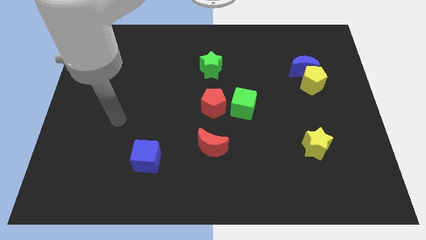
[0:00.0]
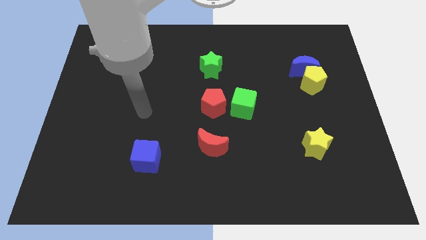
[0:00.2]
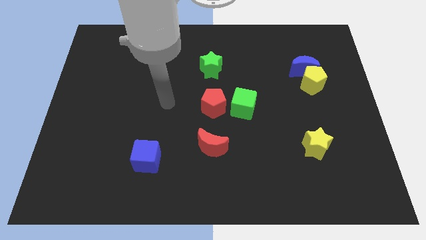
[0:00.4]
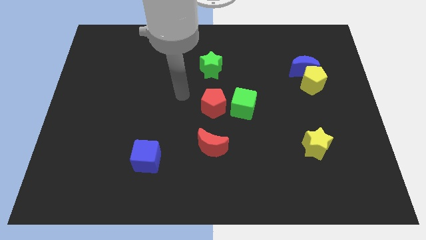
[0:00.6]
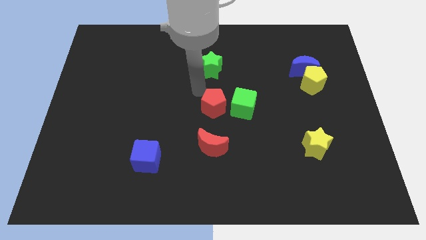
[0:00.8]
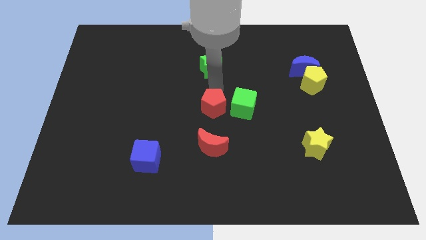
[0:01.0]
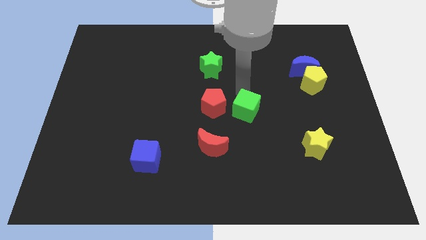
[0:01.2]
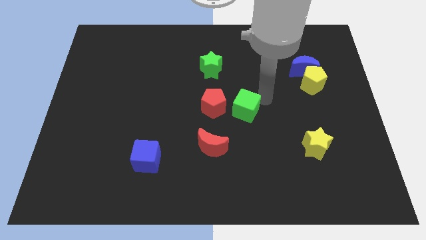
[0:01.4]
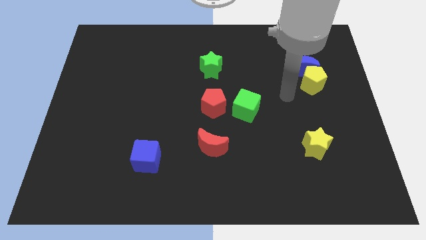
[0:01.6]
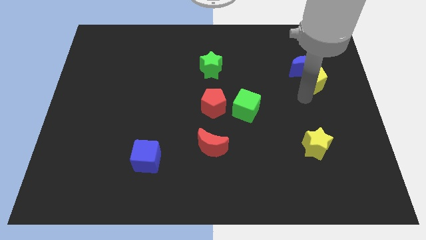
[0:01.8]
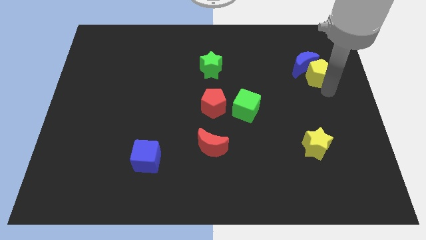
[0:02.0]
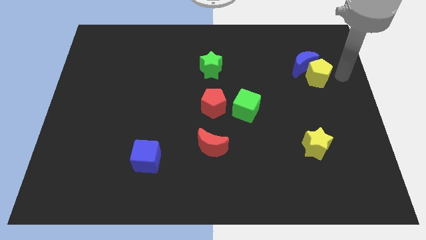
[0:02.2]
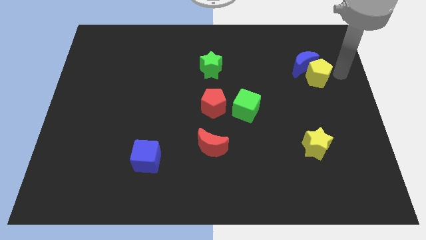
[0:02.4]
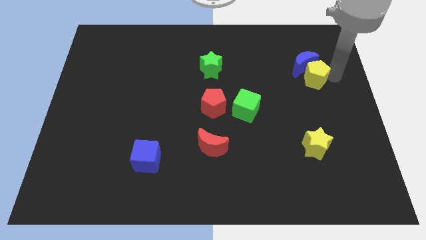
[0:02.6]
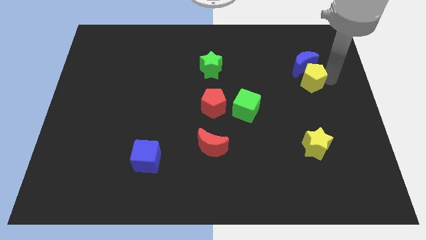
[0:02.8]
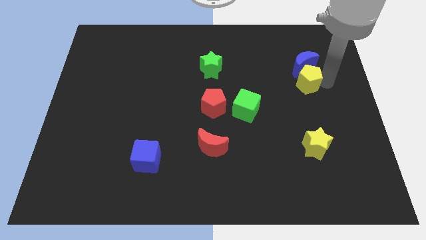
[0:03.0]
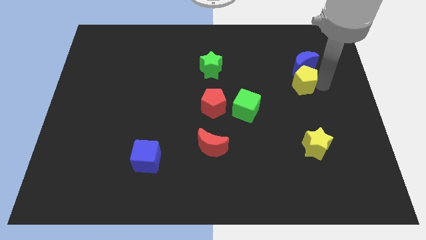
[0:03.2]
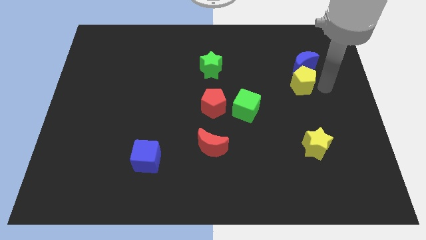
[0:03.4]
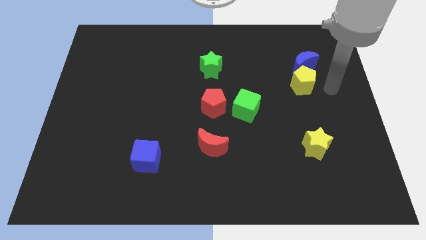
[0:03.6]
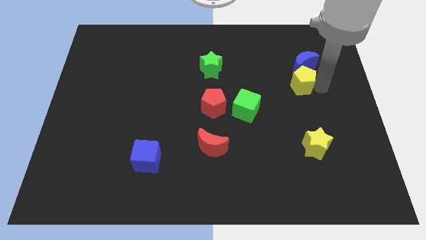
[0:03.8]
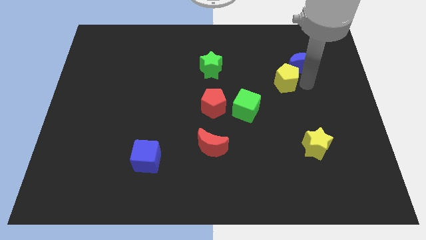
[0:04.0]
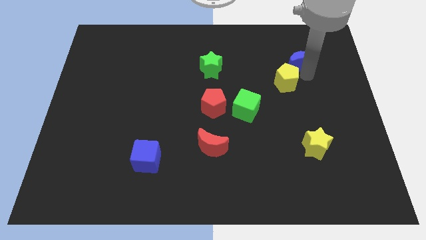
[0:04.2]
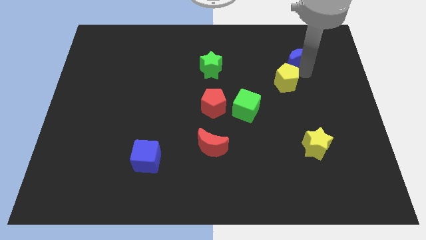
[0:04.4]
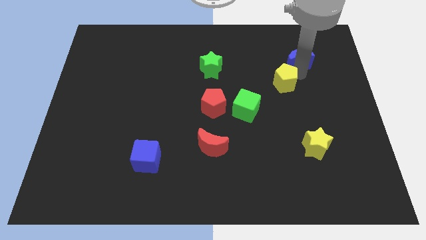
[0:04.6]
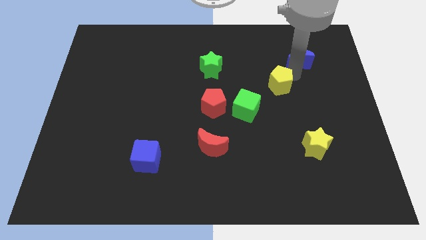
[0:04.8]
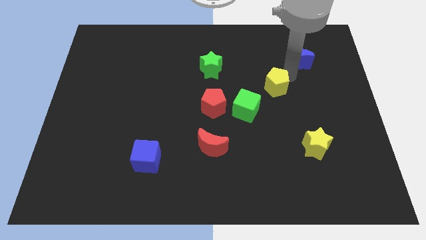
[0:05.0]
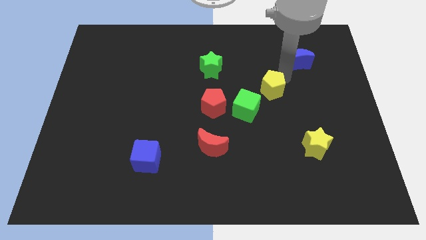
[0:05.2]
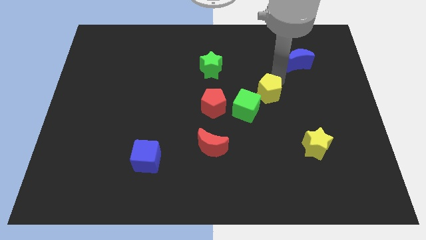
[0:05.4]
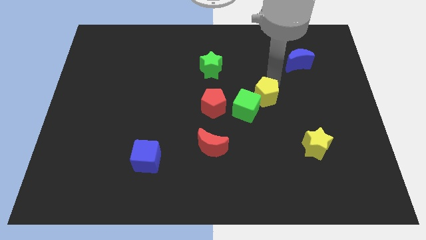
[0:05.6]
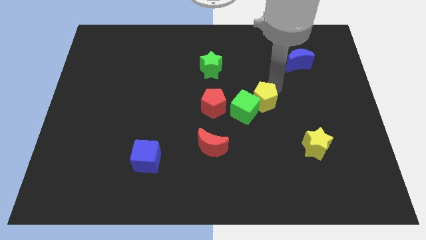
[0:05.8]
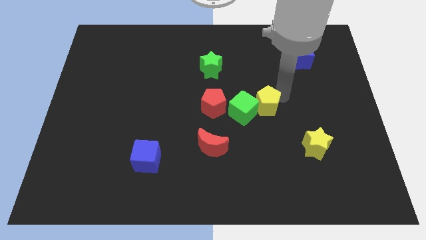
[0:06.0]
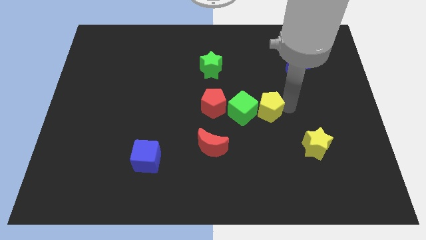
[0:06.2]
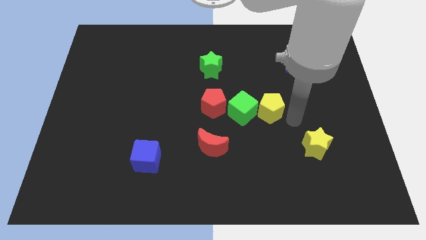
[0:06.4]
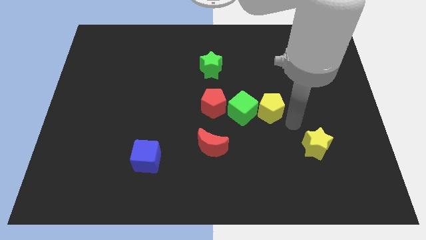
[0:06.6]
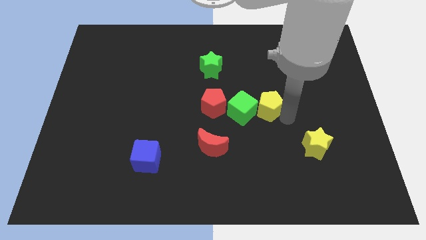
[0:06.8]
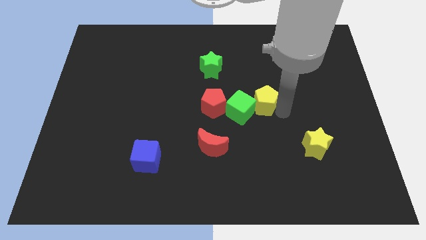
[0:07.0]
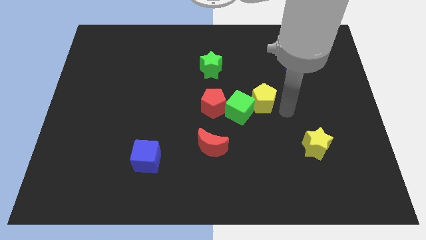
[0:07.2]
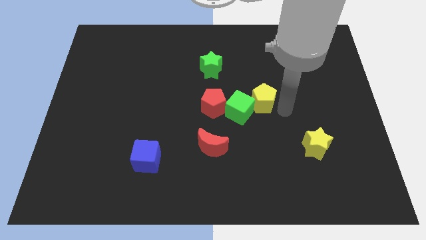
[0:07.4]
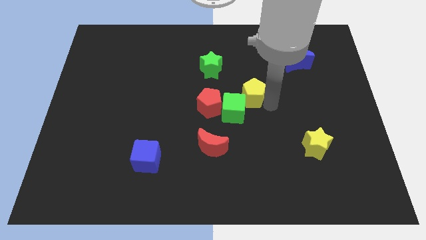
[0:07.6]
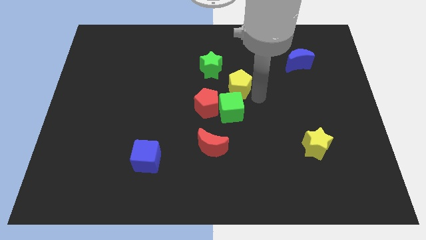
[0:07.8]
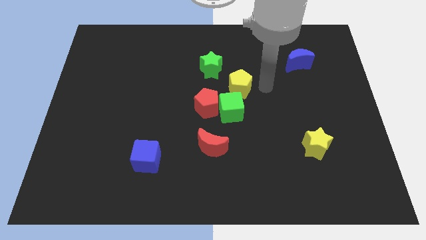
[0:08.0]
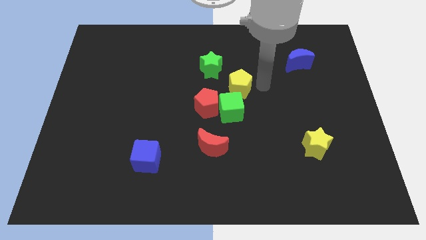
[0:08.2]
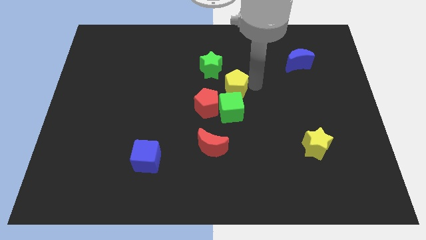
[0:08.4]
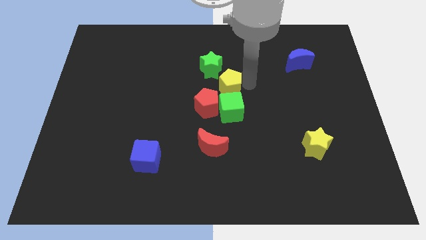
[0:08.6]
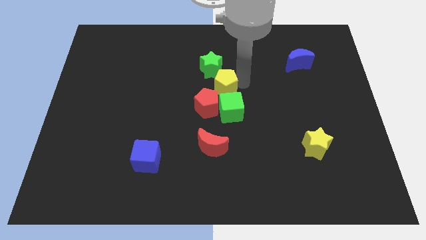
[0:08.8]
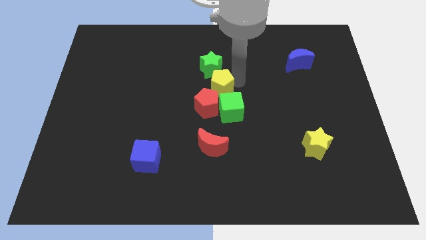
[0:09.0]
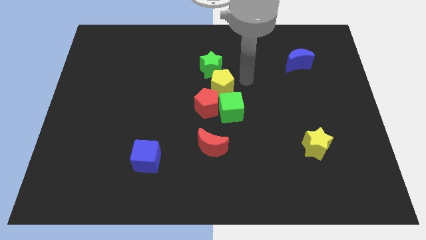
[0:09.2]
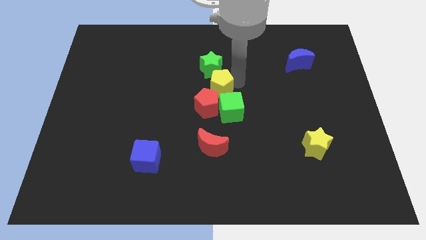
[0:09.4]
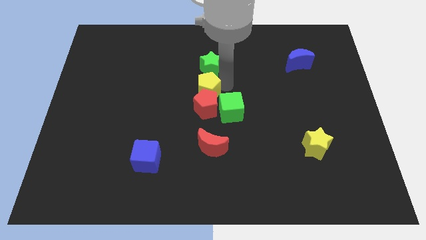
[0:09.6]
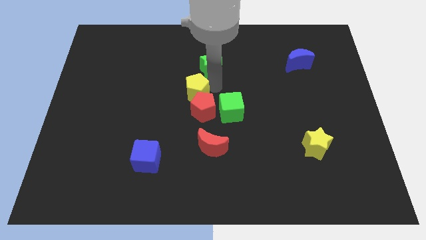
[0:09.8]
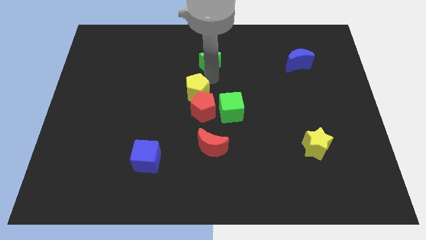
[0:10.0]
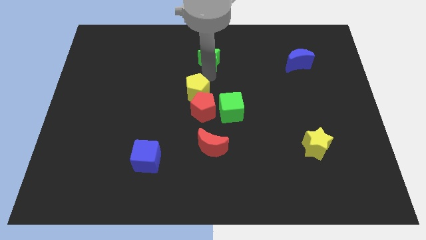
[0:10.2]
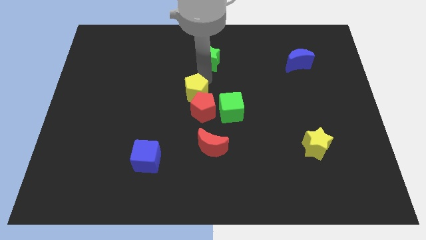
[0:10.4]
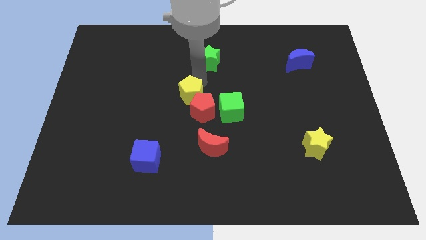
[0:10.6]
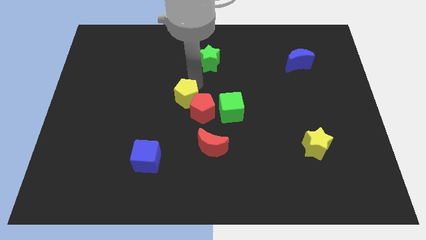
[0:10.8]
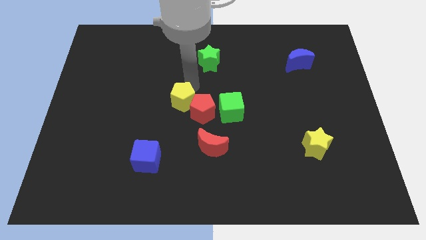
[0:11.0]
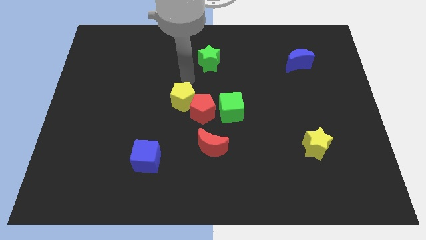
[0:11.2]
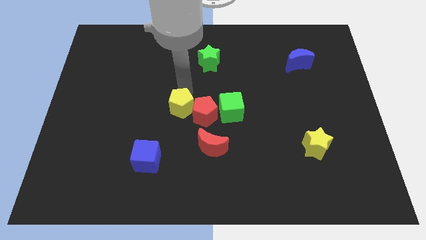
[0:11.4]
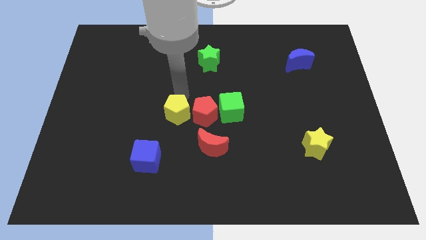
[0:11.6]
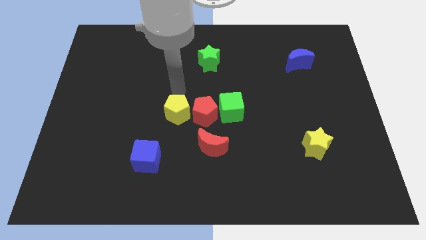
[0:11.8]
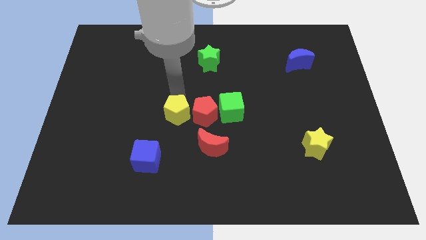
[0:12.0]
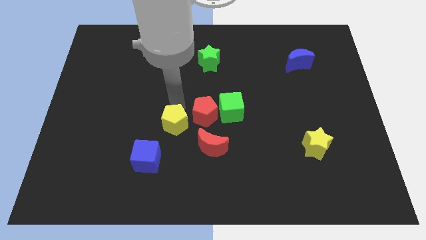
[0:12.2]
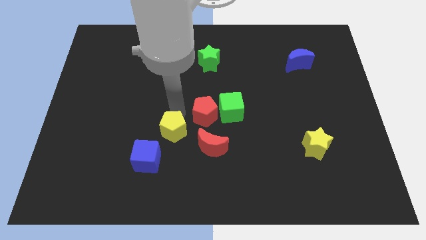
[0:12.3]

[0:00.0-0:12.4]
slide the yellow pentagon to the left of the red moon

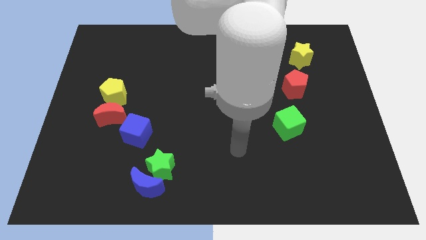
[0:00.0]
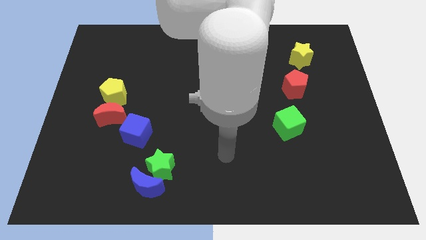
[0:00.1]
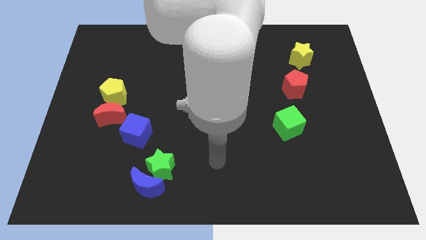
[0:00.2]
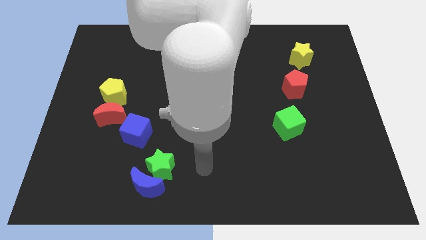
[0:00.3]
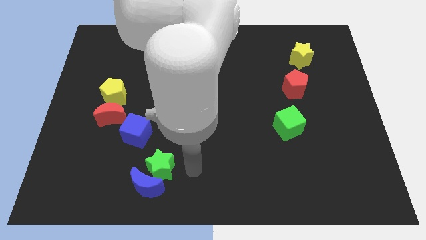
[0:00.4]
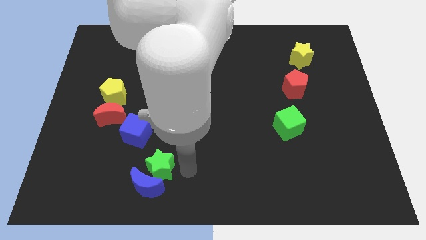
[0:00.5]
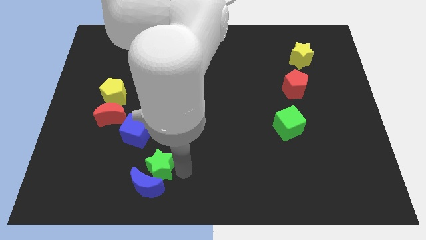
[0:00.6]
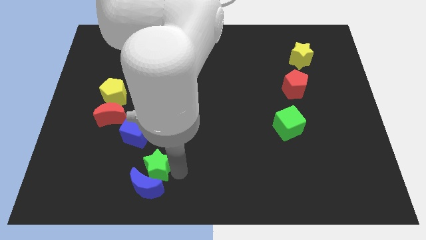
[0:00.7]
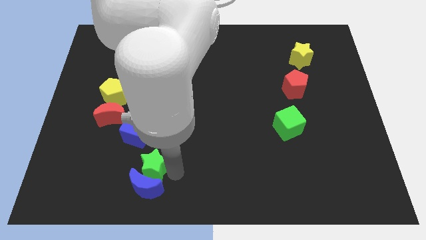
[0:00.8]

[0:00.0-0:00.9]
put the green star to the top left side of the blue moon
